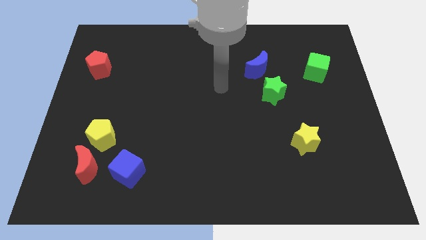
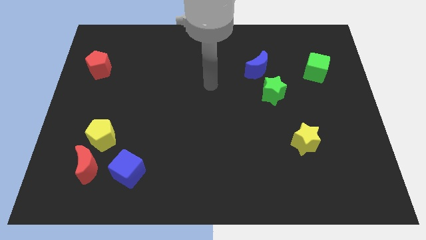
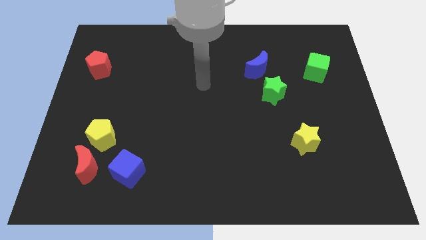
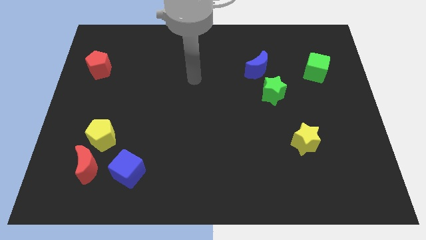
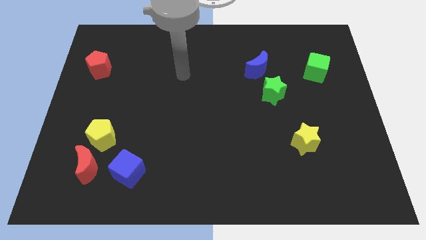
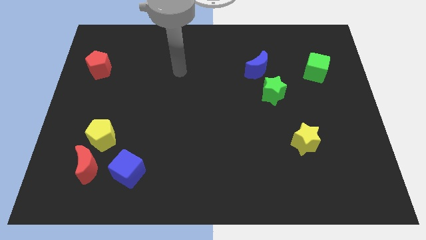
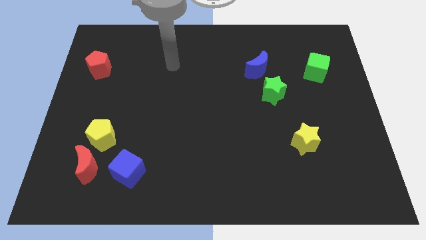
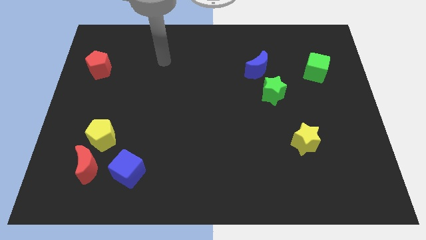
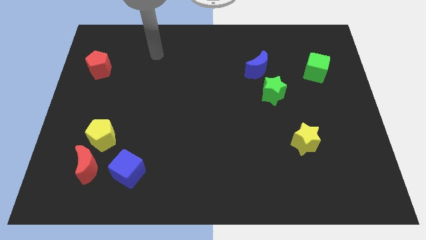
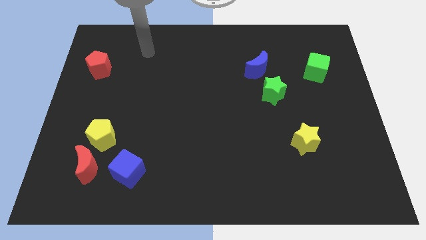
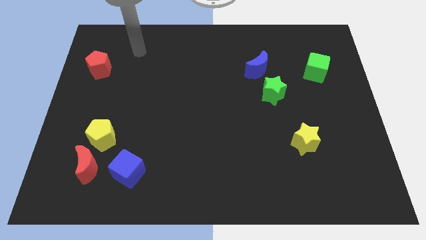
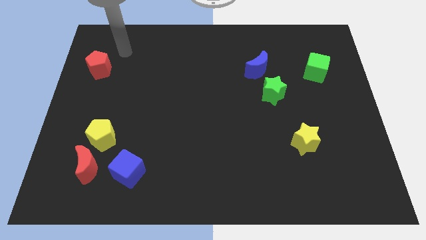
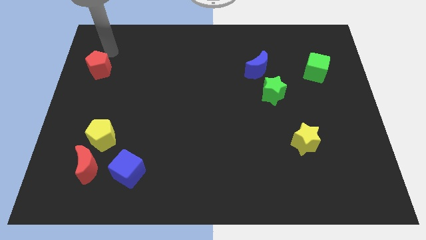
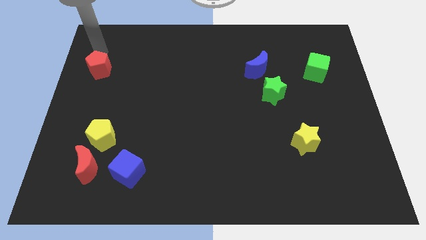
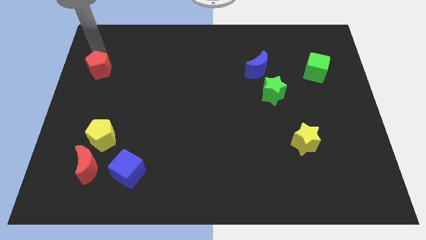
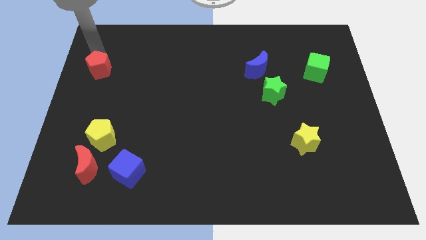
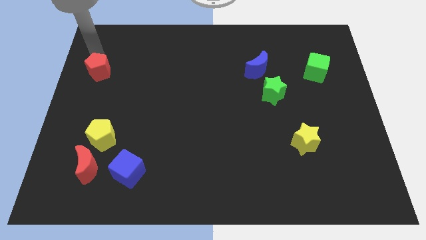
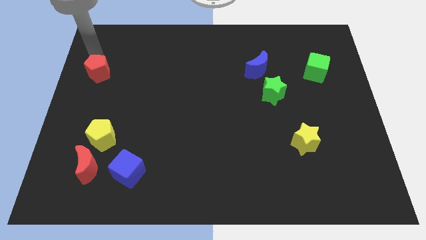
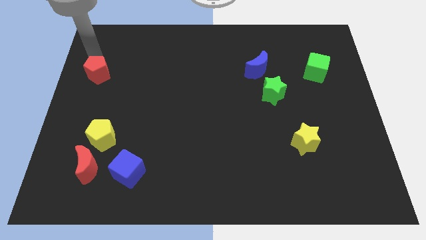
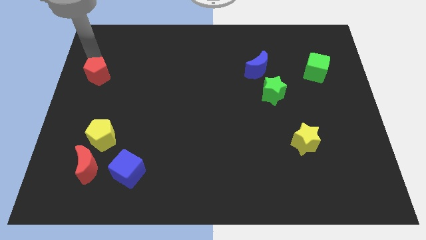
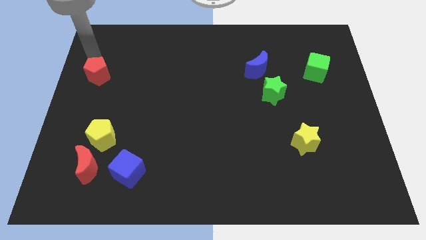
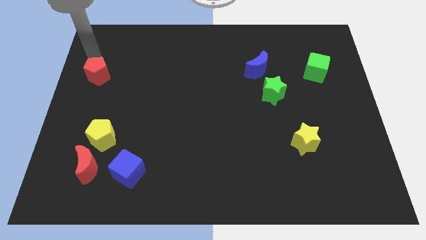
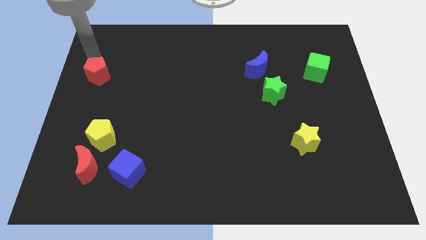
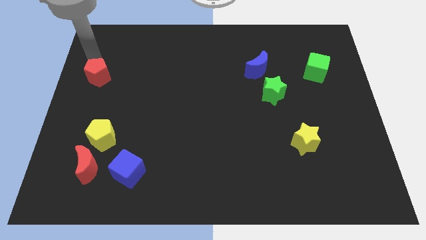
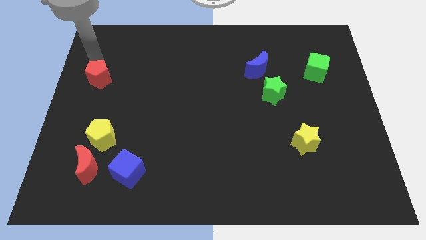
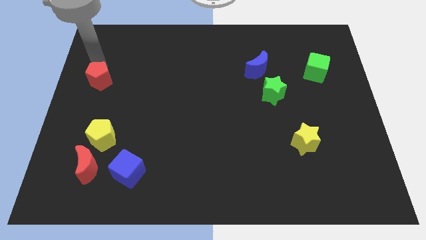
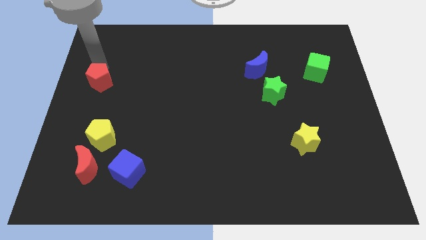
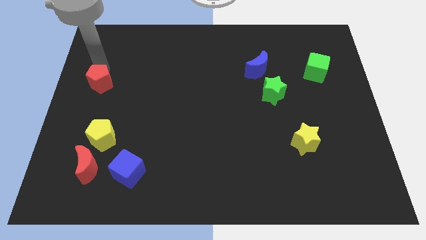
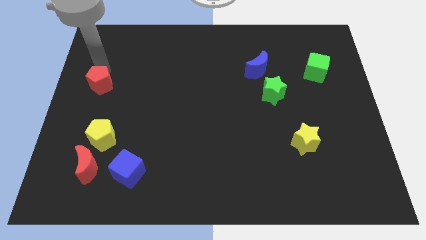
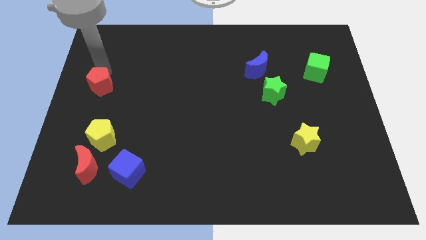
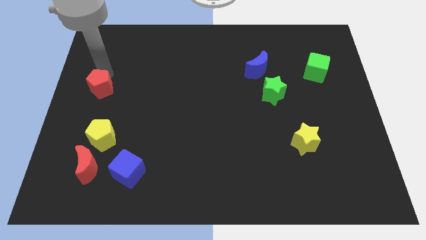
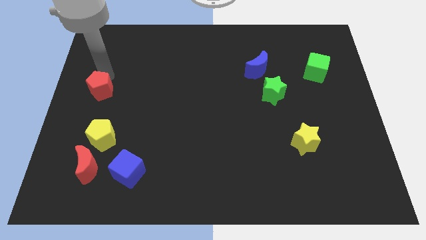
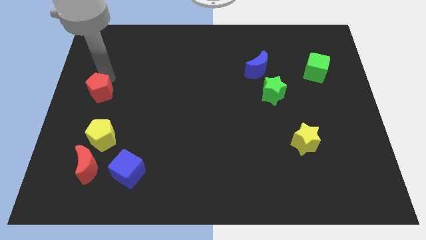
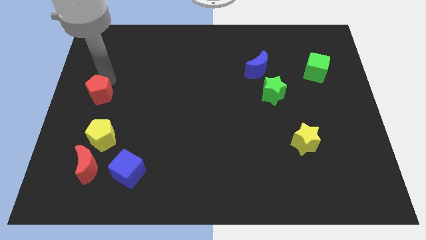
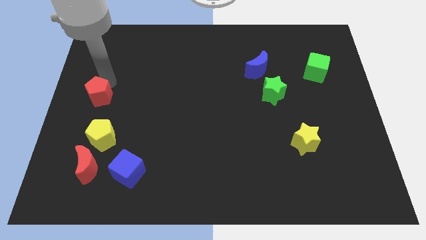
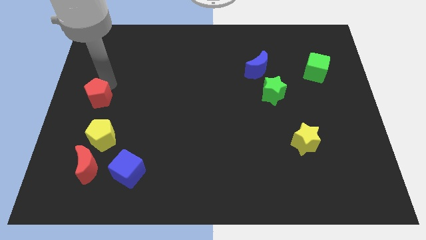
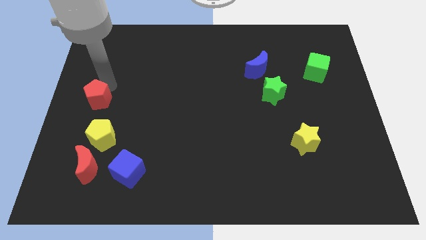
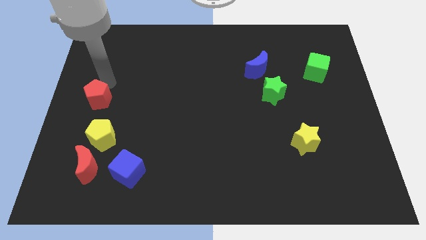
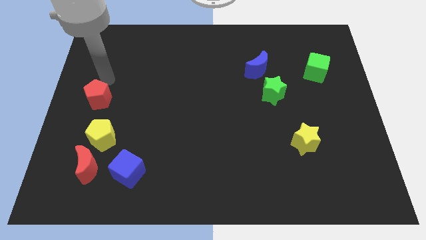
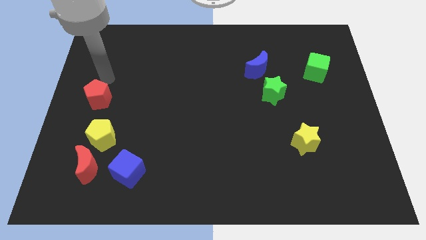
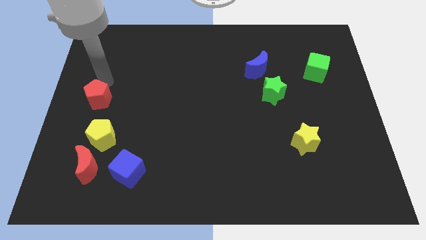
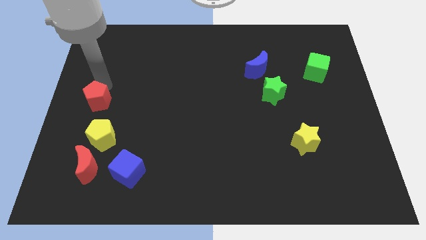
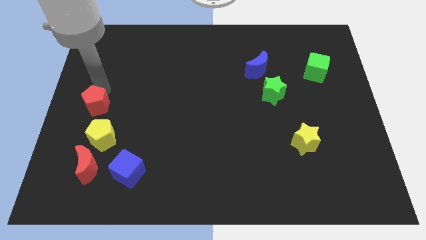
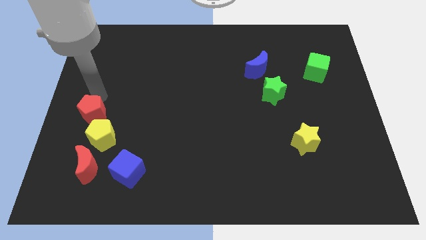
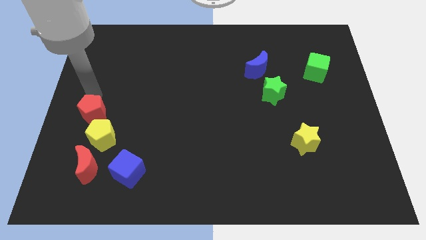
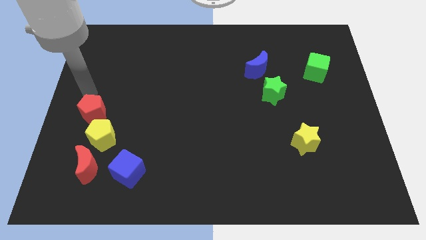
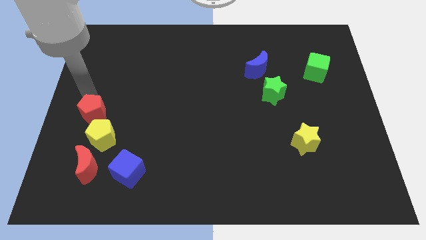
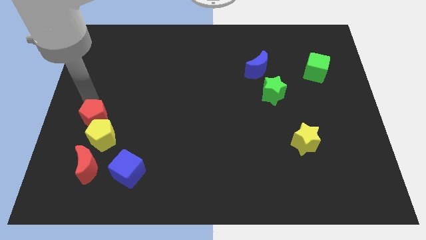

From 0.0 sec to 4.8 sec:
put the red pentagon to the yellow pentagon

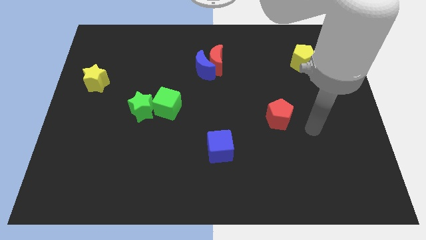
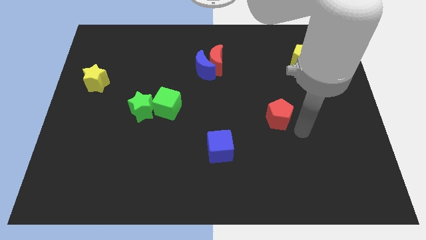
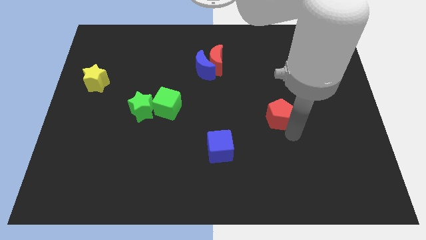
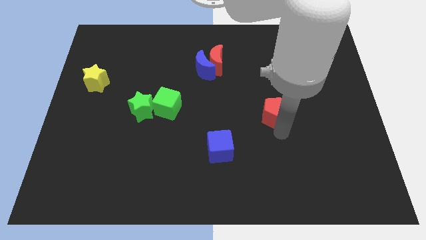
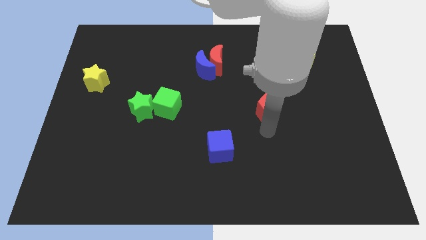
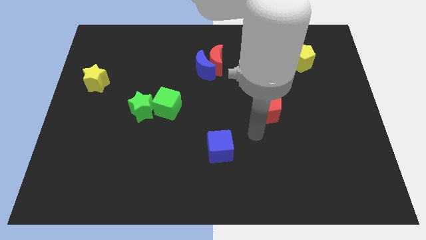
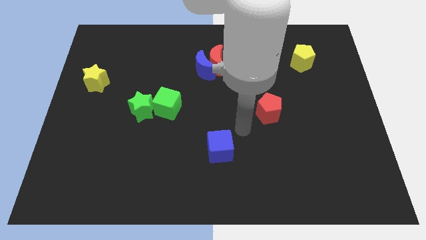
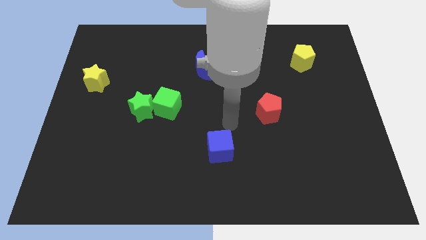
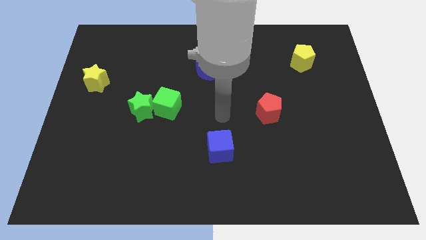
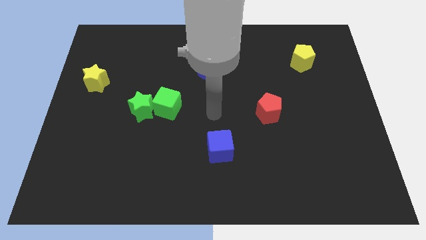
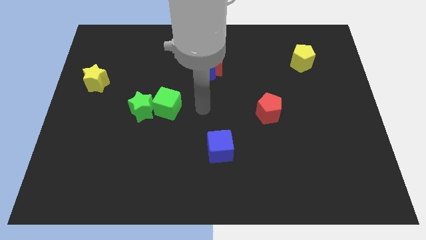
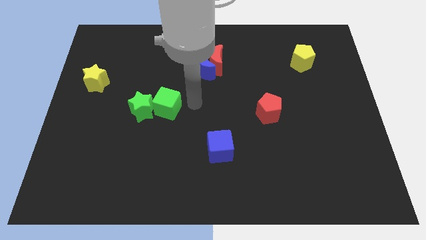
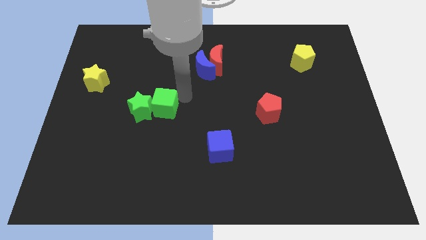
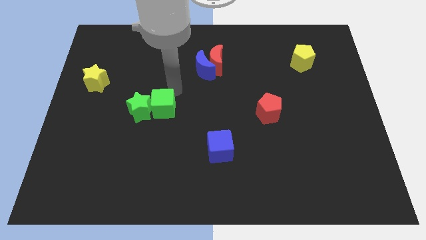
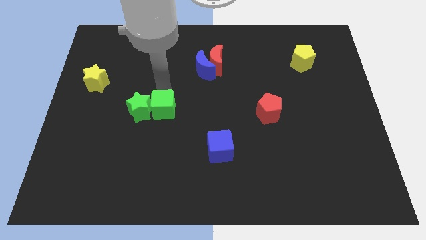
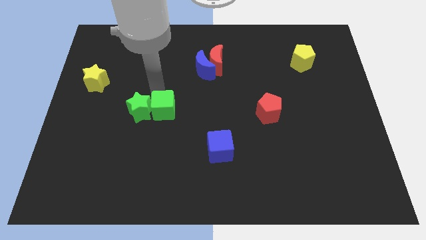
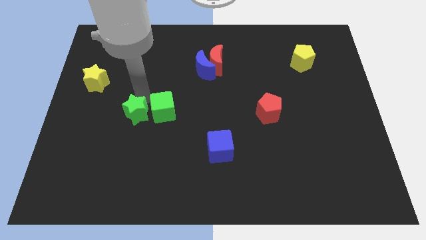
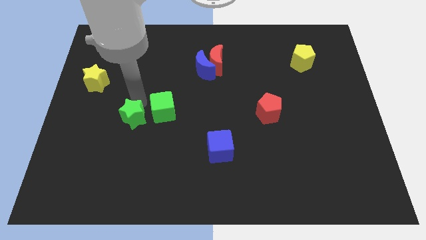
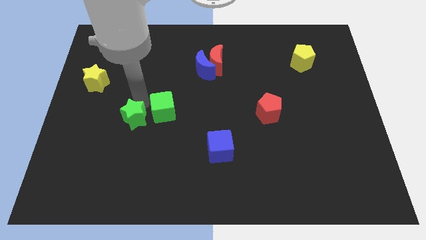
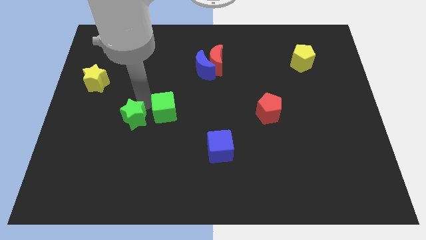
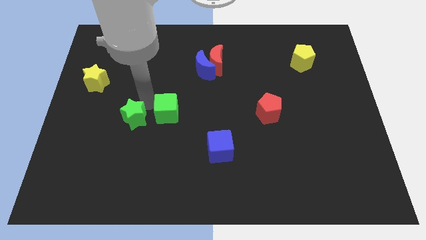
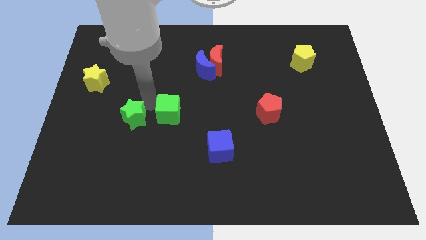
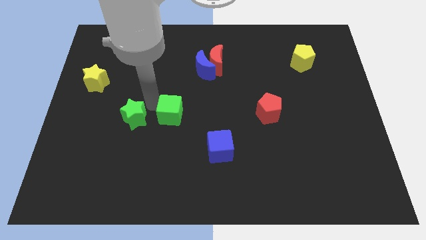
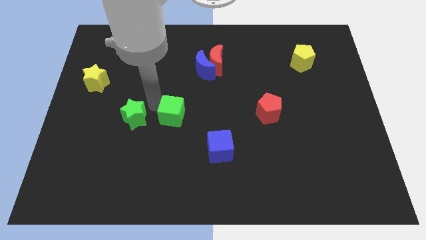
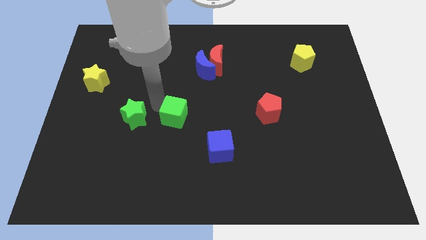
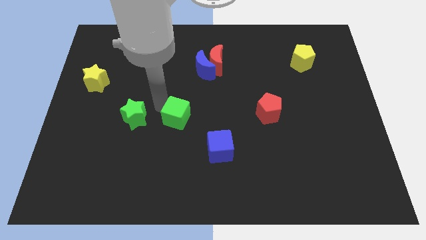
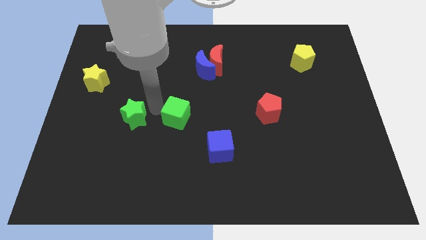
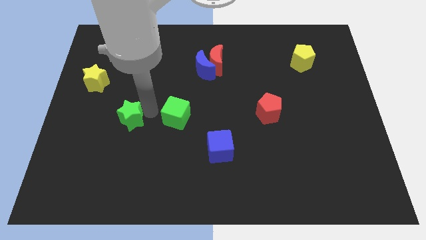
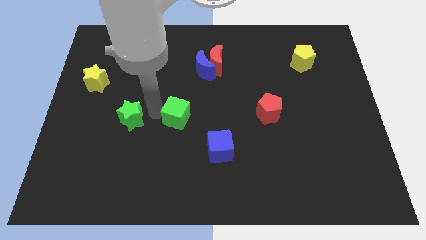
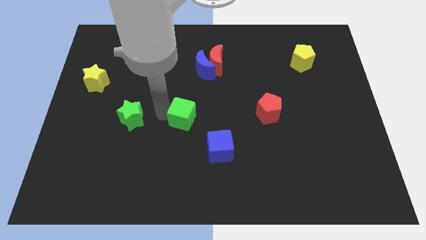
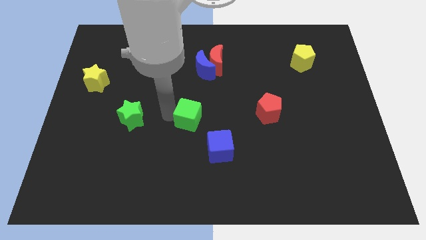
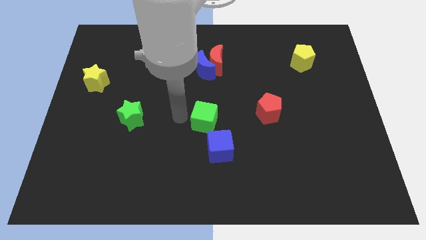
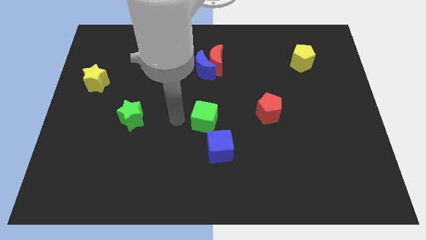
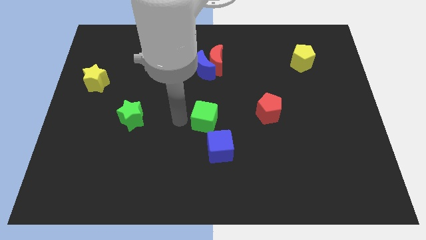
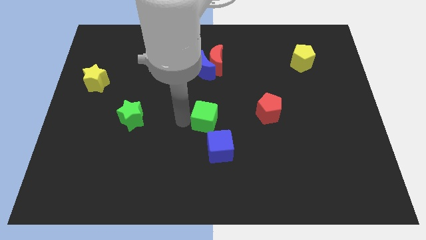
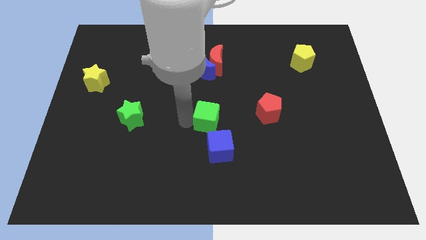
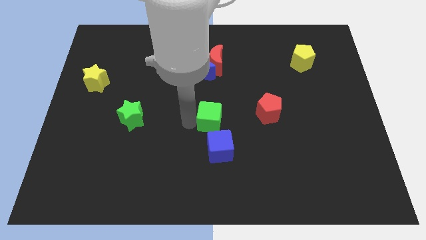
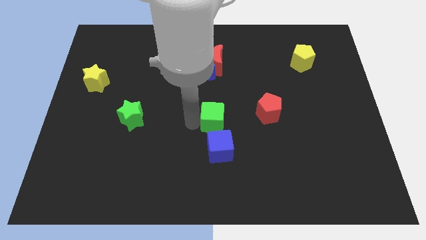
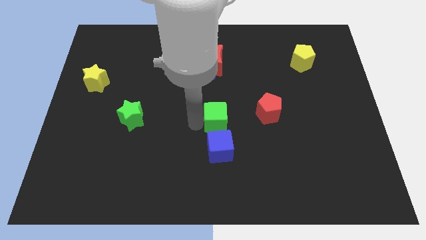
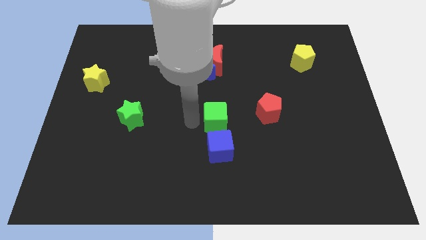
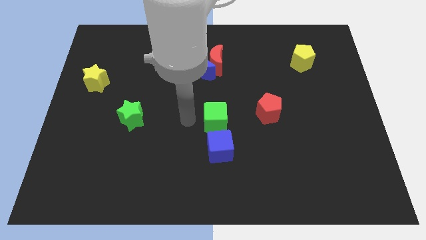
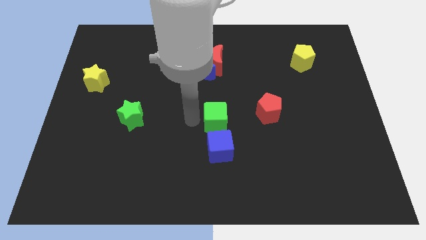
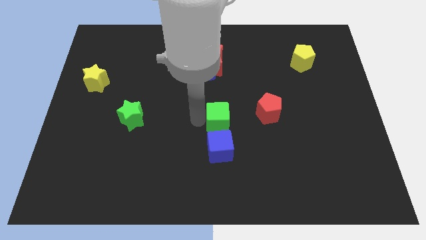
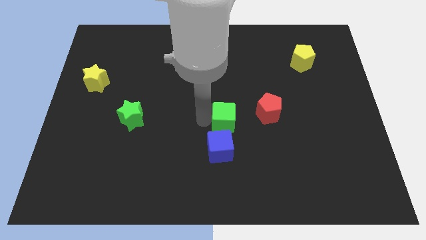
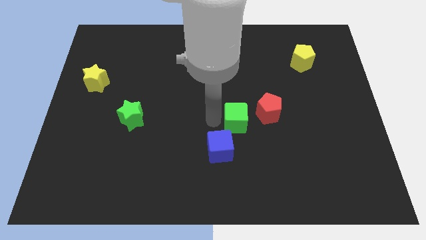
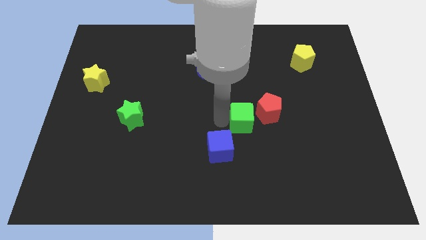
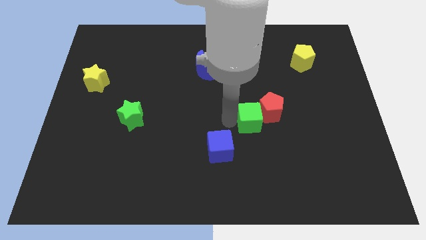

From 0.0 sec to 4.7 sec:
move the green cube to the red pentagon
